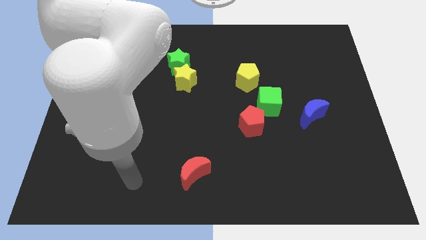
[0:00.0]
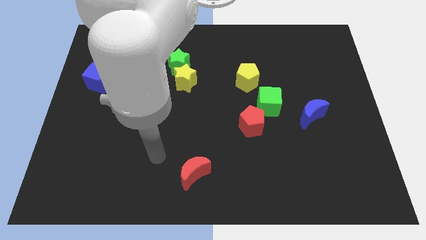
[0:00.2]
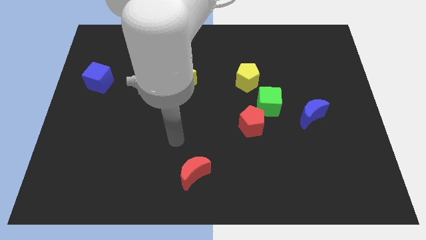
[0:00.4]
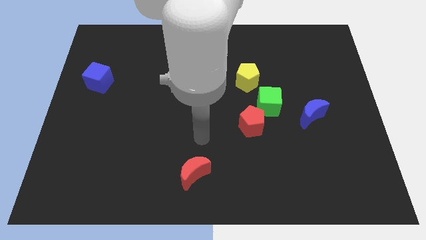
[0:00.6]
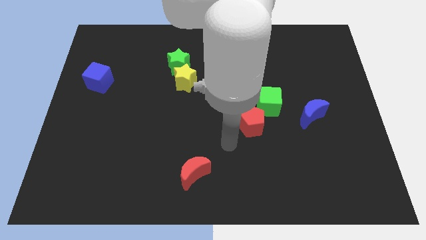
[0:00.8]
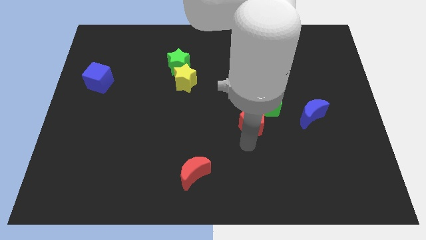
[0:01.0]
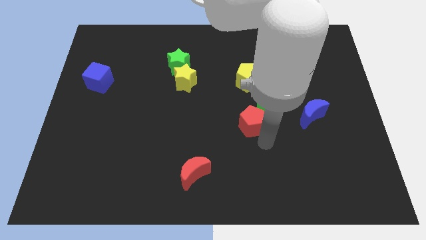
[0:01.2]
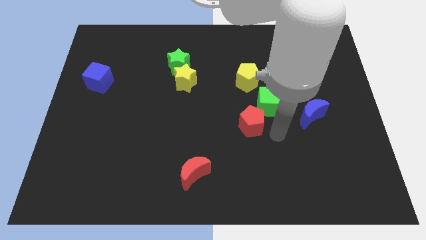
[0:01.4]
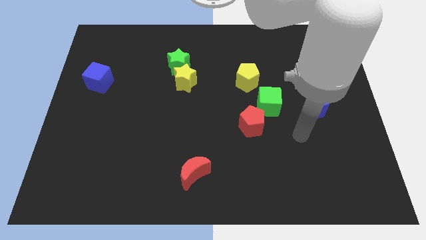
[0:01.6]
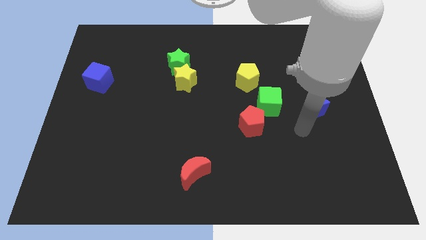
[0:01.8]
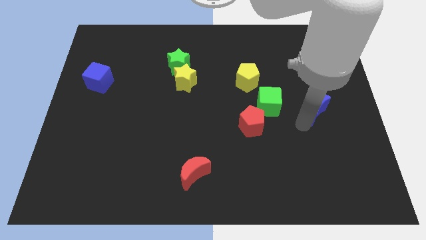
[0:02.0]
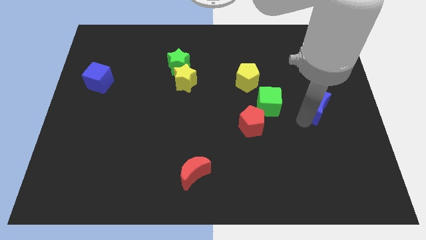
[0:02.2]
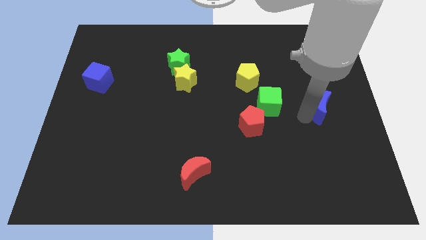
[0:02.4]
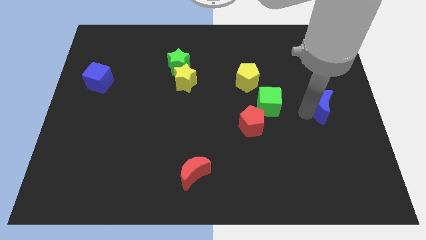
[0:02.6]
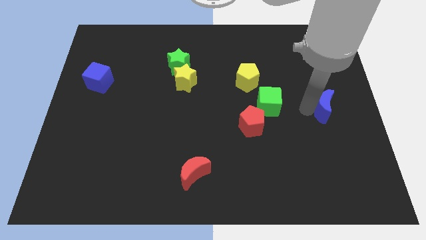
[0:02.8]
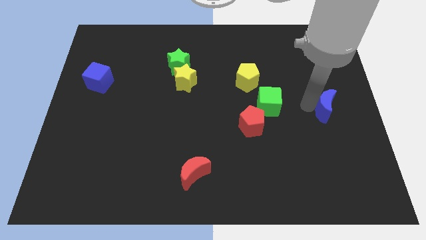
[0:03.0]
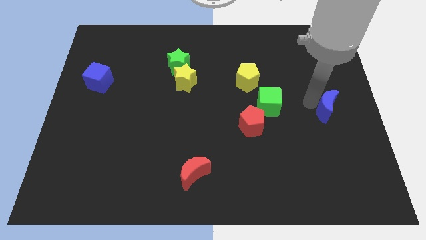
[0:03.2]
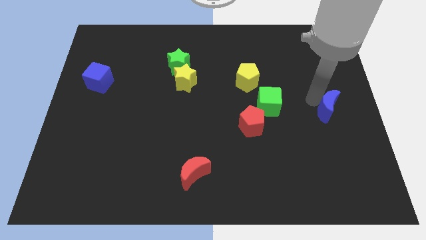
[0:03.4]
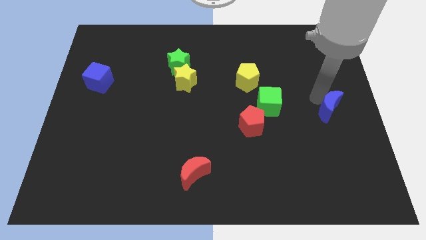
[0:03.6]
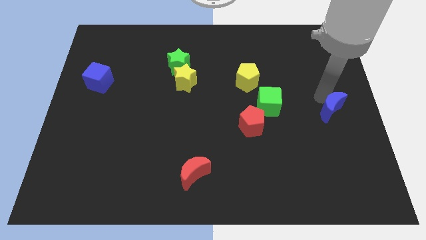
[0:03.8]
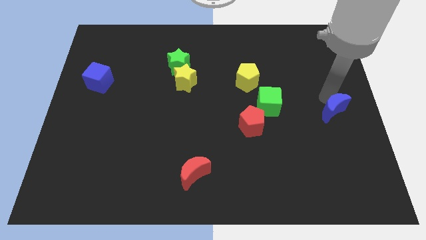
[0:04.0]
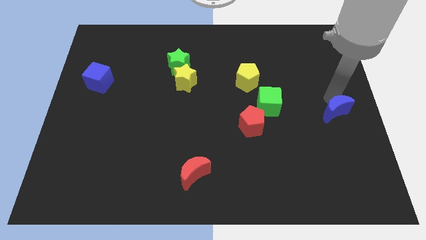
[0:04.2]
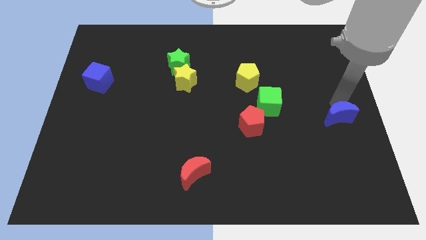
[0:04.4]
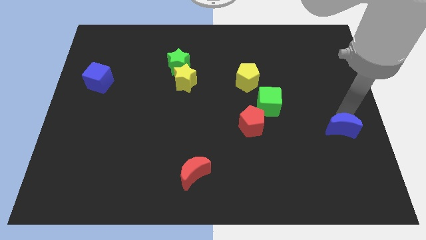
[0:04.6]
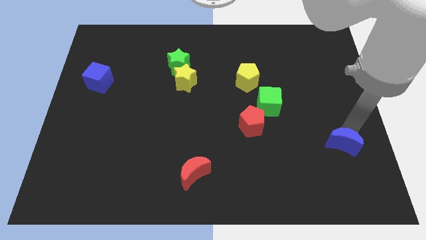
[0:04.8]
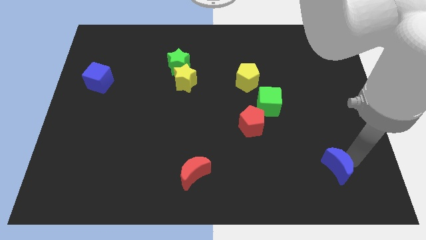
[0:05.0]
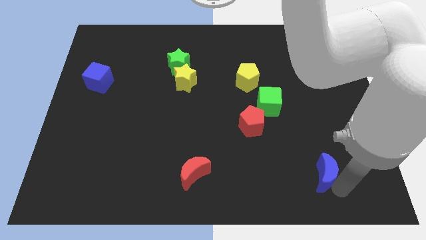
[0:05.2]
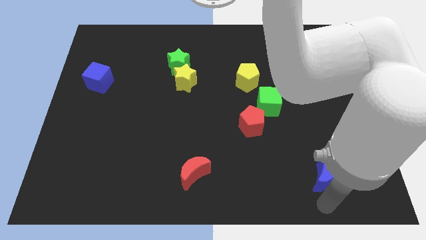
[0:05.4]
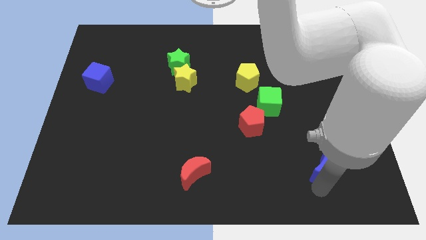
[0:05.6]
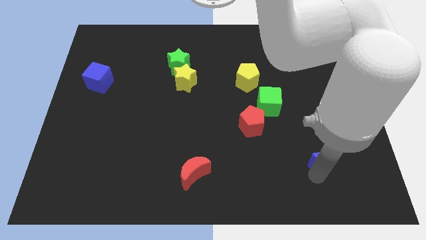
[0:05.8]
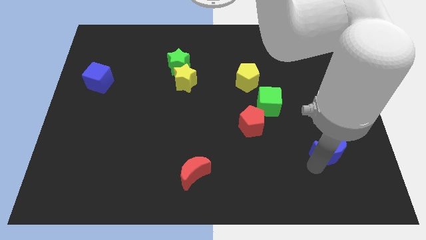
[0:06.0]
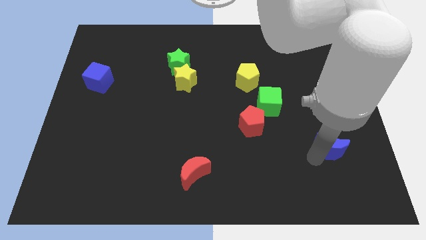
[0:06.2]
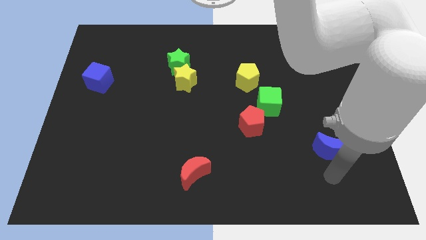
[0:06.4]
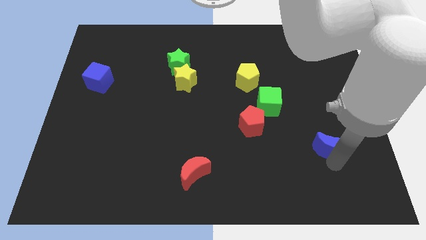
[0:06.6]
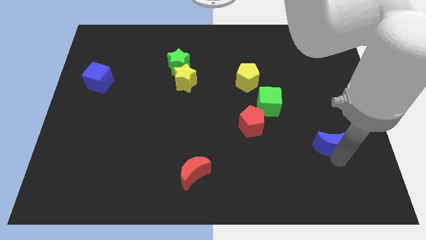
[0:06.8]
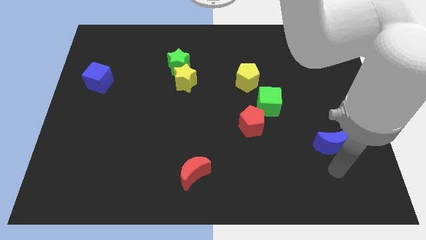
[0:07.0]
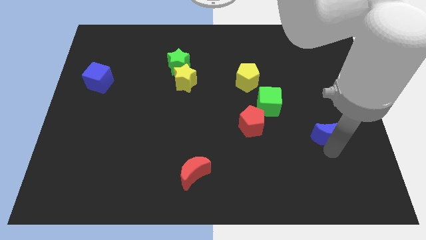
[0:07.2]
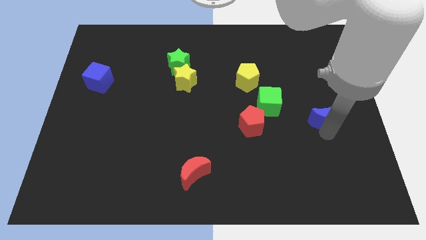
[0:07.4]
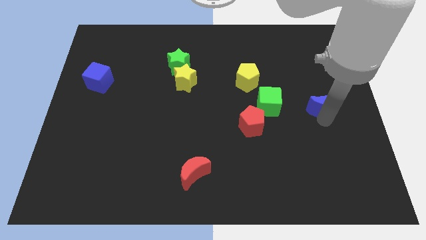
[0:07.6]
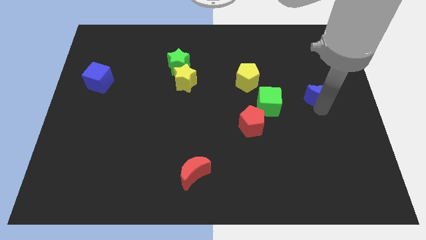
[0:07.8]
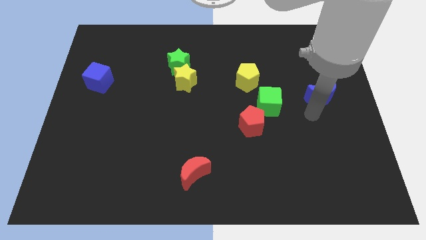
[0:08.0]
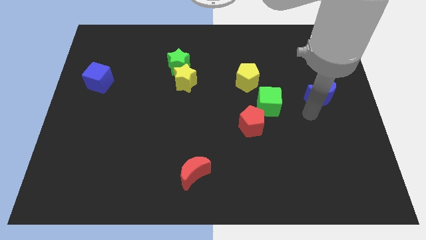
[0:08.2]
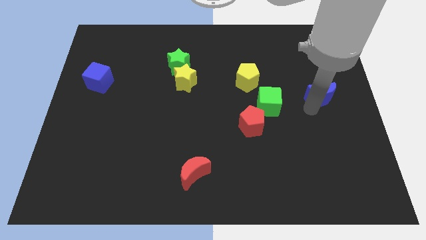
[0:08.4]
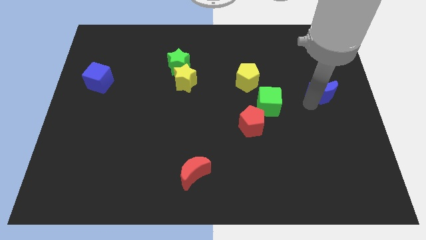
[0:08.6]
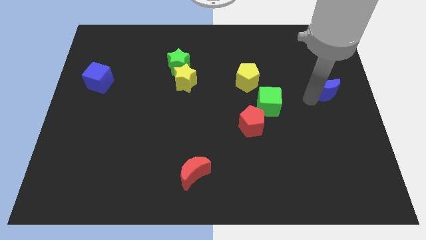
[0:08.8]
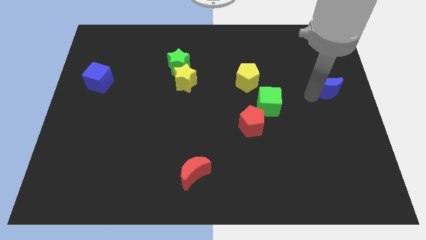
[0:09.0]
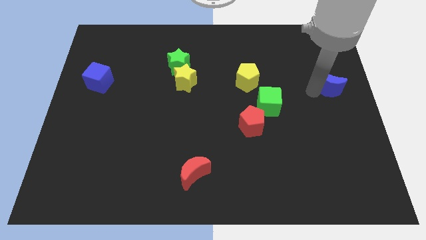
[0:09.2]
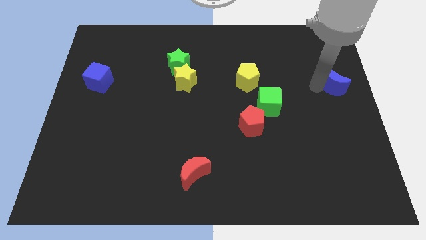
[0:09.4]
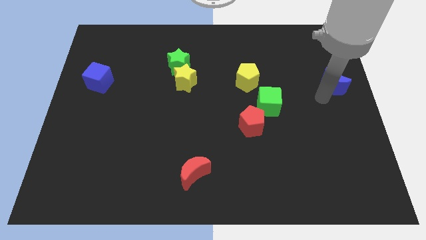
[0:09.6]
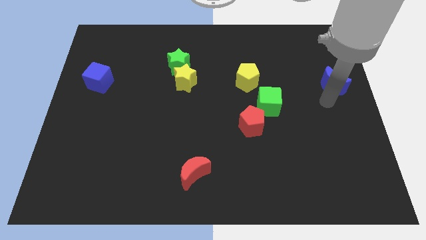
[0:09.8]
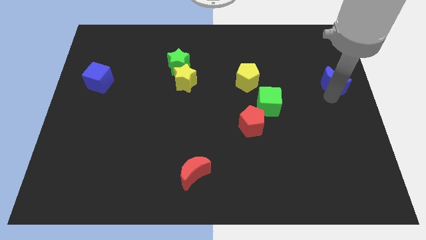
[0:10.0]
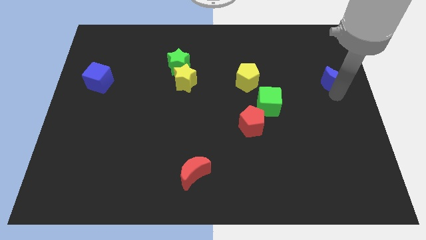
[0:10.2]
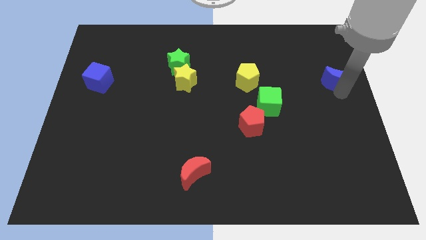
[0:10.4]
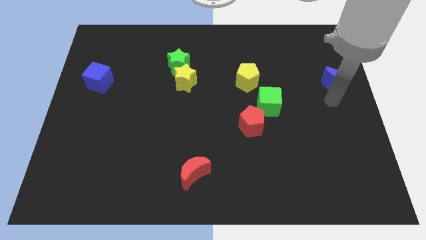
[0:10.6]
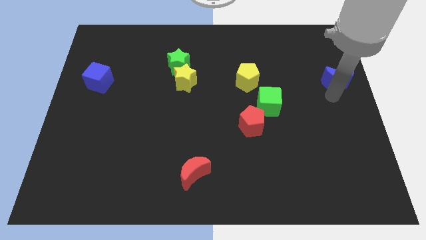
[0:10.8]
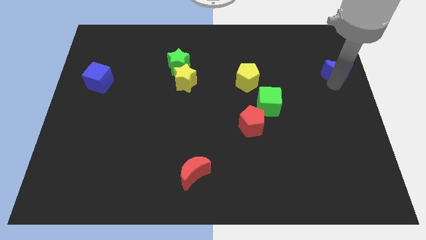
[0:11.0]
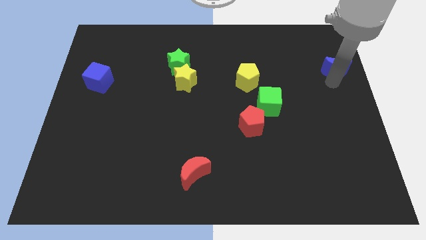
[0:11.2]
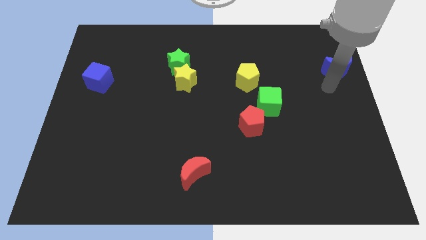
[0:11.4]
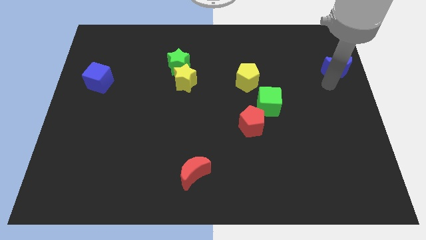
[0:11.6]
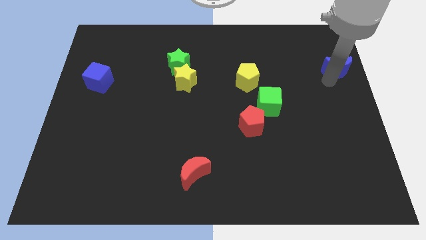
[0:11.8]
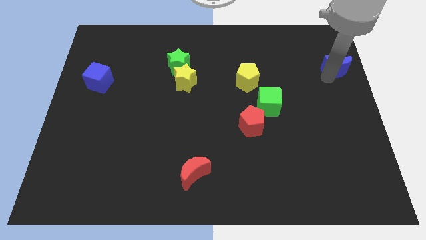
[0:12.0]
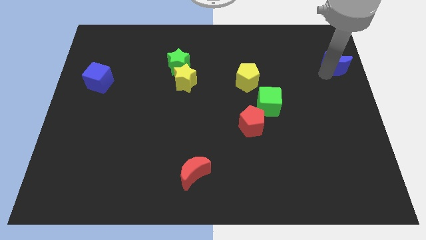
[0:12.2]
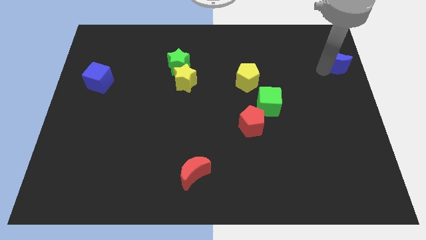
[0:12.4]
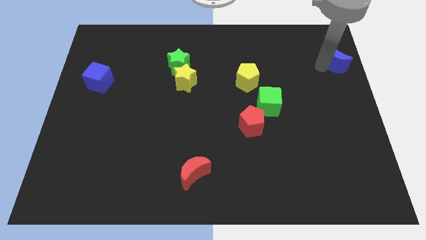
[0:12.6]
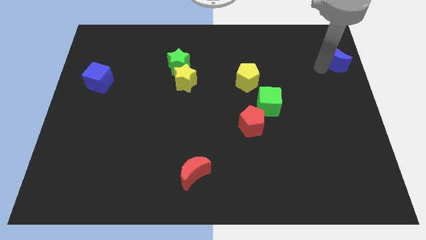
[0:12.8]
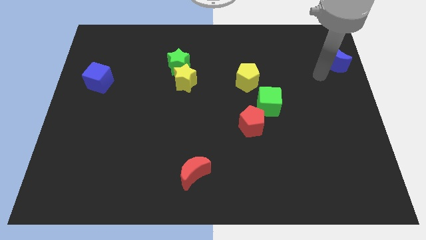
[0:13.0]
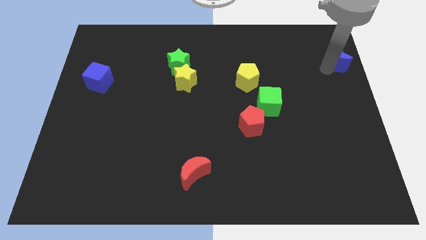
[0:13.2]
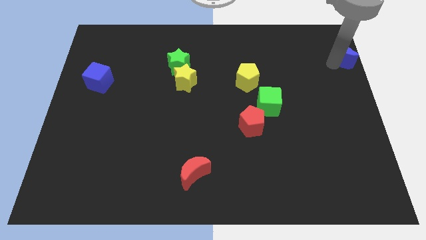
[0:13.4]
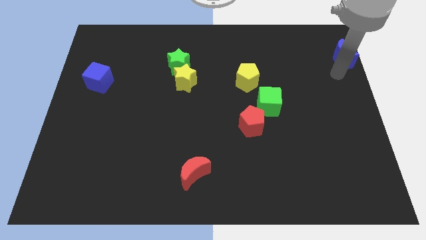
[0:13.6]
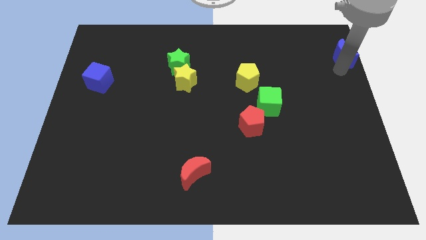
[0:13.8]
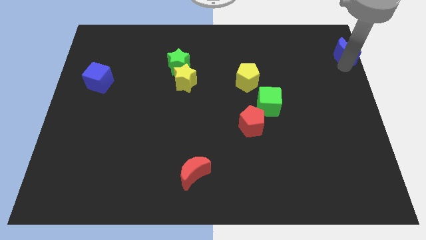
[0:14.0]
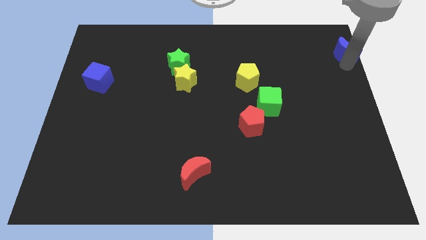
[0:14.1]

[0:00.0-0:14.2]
push the blue moon to the top right corner
